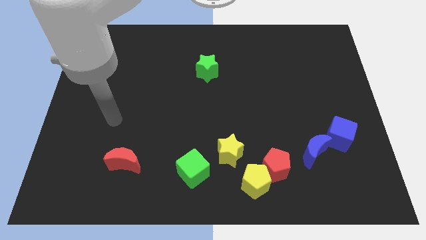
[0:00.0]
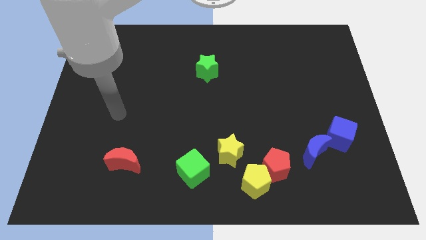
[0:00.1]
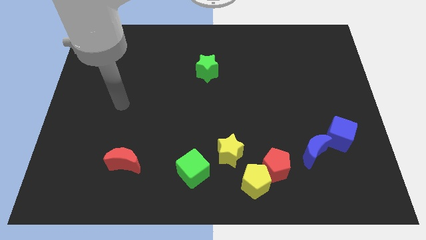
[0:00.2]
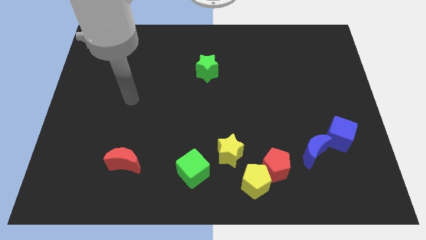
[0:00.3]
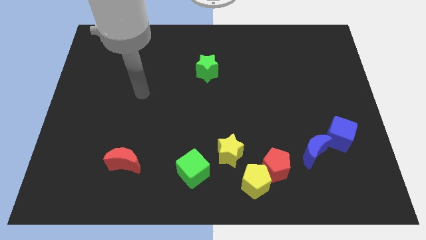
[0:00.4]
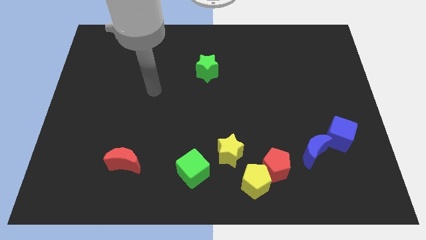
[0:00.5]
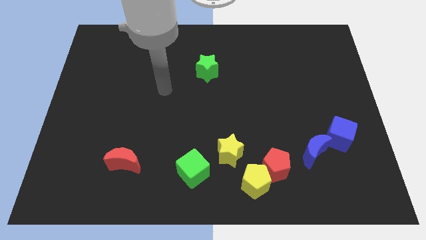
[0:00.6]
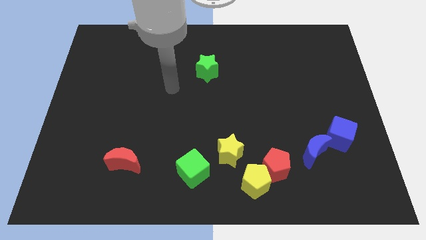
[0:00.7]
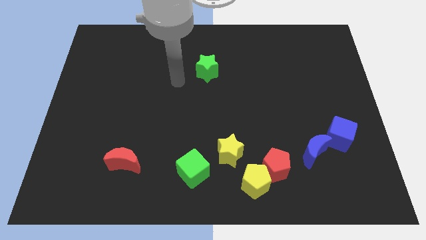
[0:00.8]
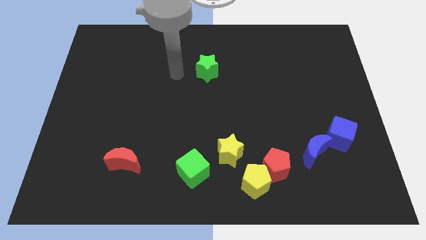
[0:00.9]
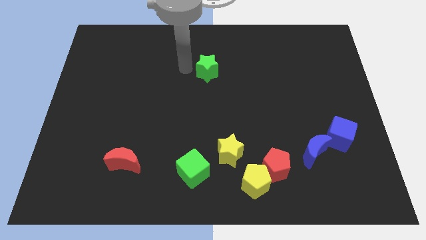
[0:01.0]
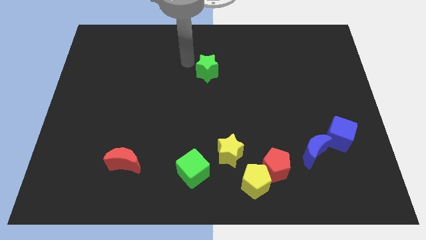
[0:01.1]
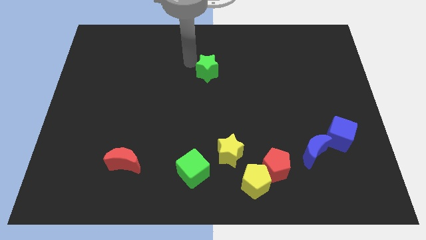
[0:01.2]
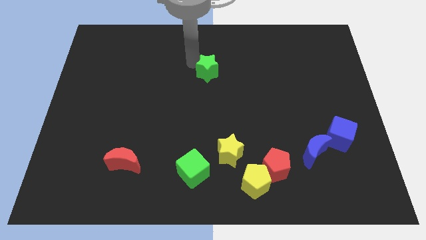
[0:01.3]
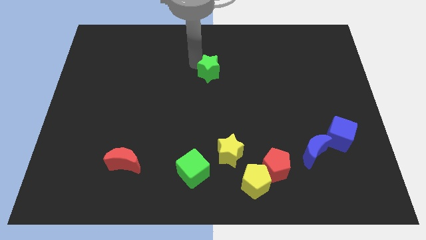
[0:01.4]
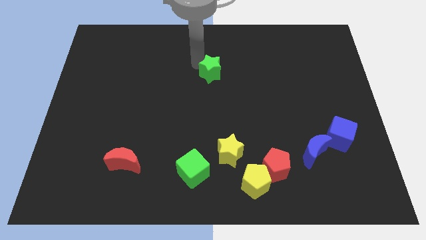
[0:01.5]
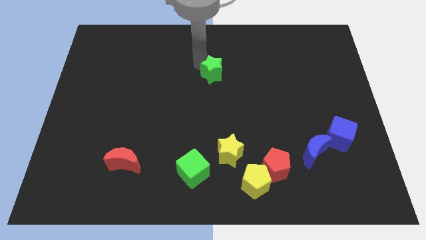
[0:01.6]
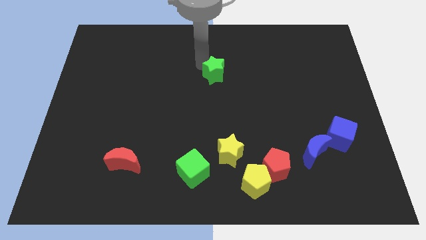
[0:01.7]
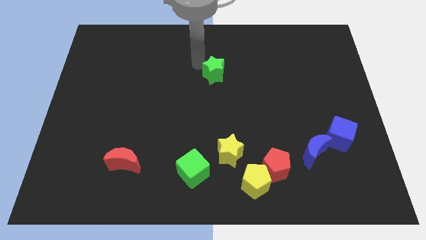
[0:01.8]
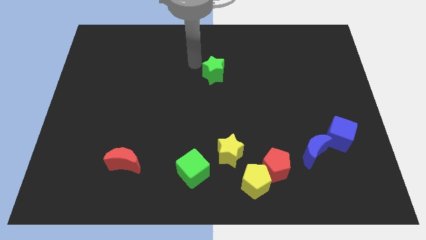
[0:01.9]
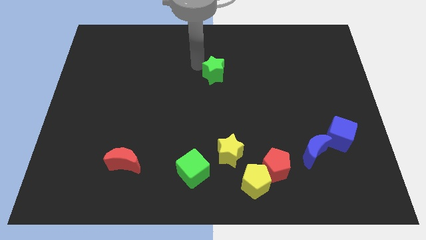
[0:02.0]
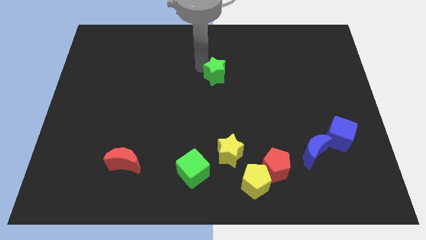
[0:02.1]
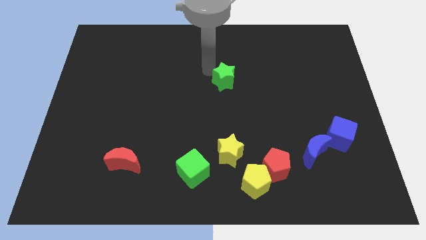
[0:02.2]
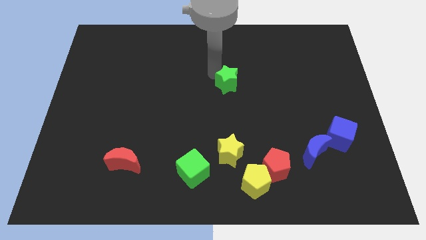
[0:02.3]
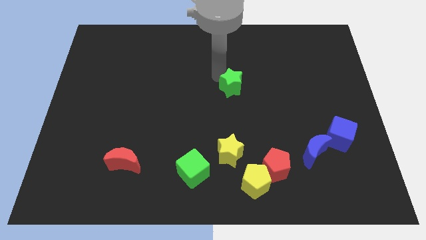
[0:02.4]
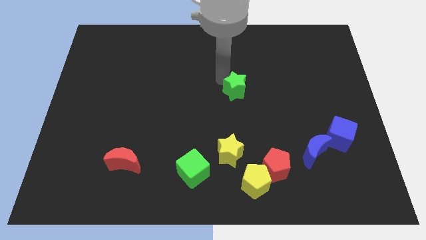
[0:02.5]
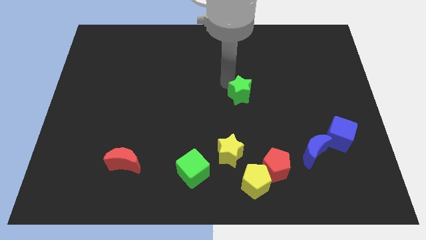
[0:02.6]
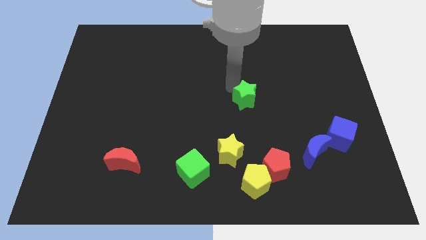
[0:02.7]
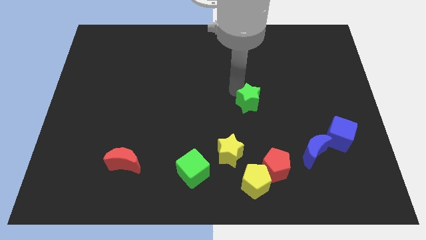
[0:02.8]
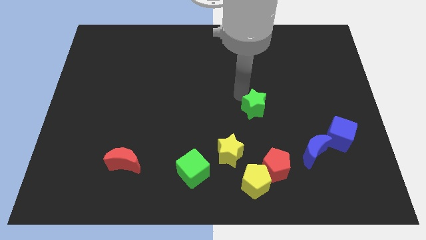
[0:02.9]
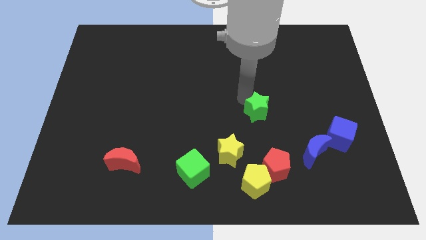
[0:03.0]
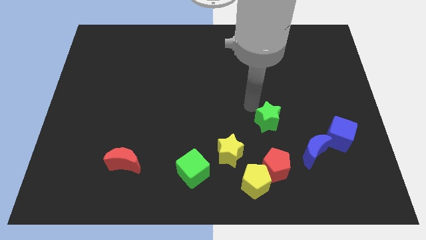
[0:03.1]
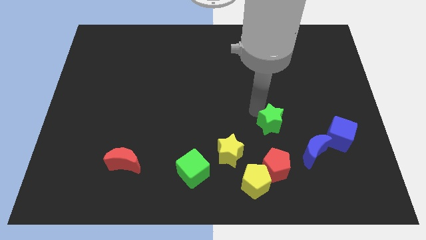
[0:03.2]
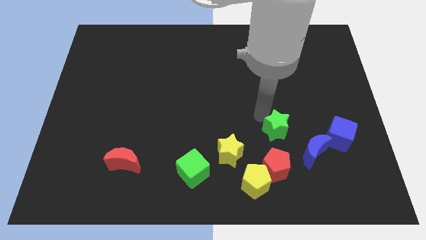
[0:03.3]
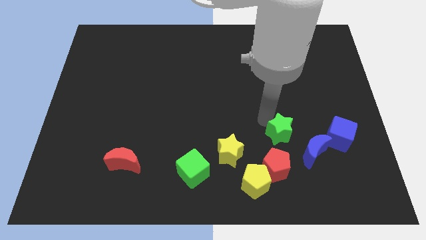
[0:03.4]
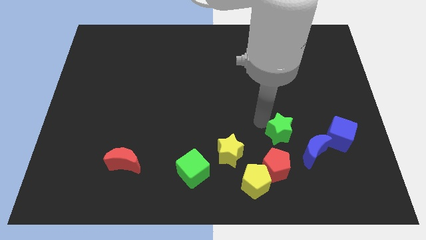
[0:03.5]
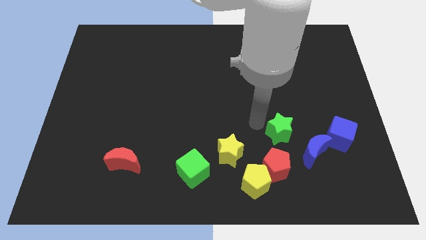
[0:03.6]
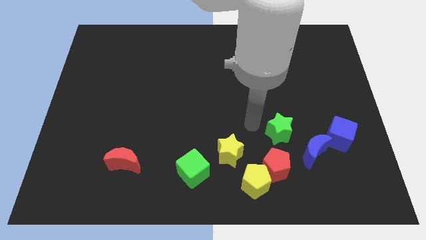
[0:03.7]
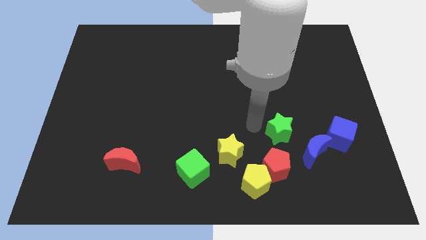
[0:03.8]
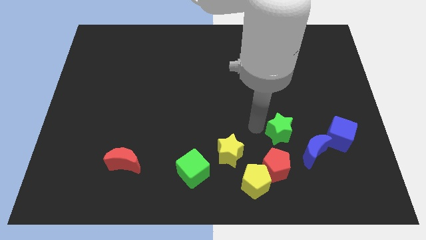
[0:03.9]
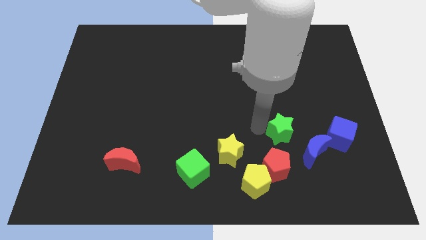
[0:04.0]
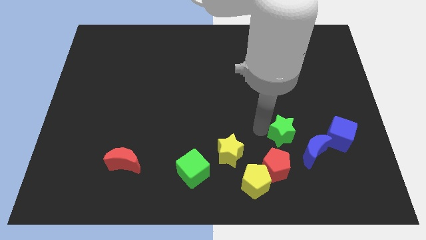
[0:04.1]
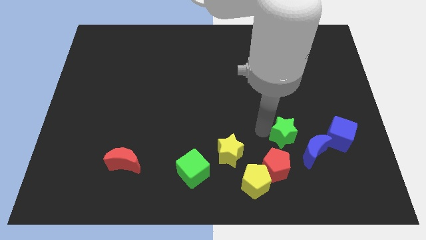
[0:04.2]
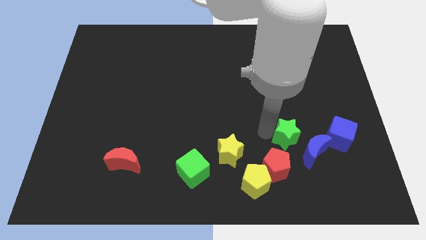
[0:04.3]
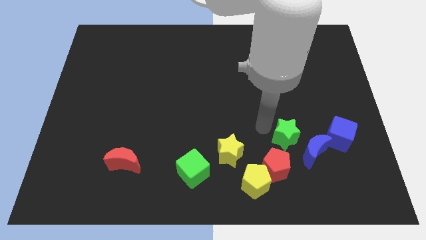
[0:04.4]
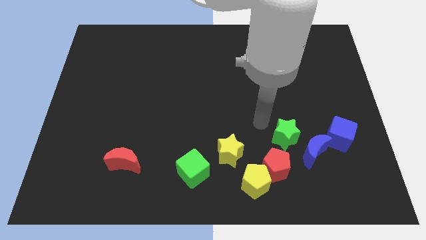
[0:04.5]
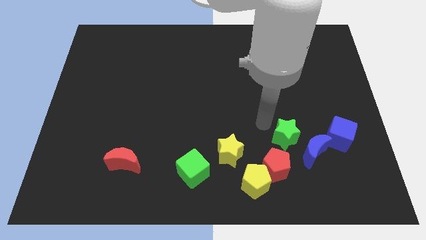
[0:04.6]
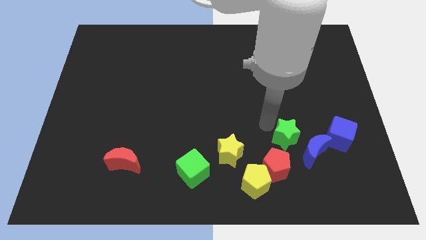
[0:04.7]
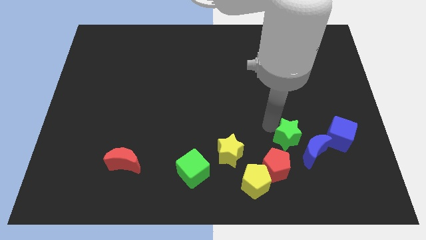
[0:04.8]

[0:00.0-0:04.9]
push the green star next to the blue moon

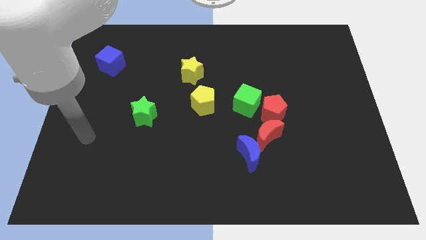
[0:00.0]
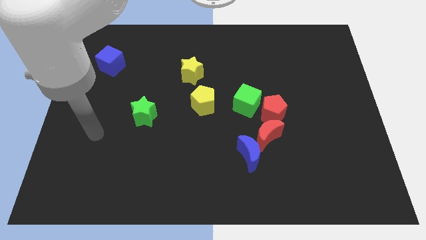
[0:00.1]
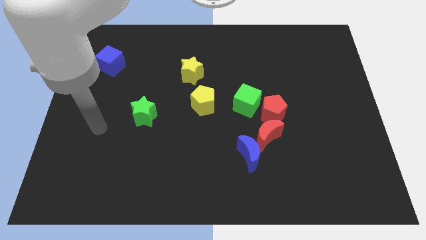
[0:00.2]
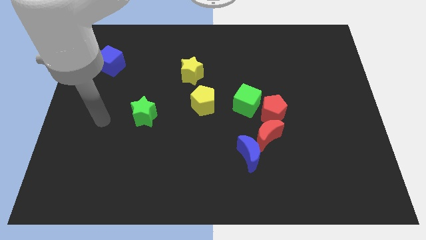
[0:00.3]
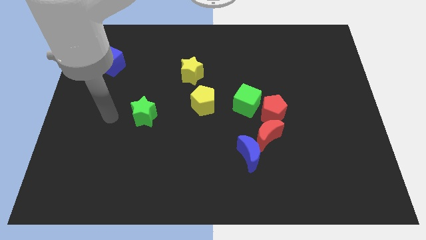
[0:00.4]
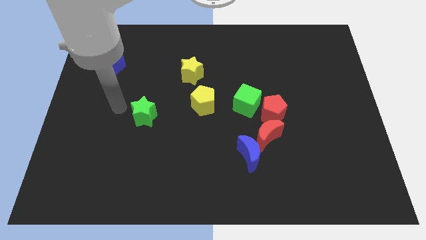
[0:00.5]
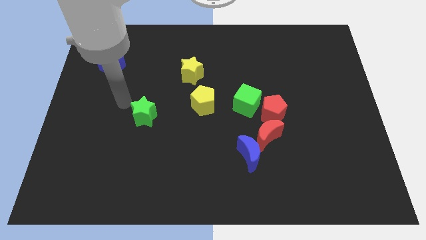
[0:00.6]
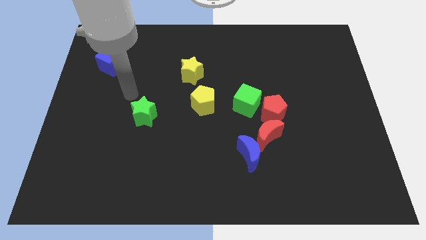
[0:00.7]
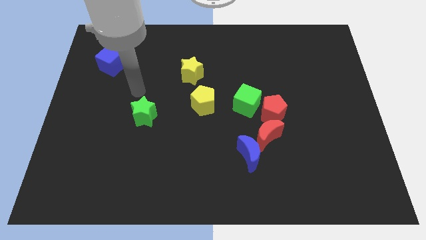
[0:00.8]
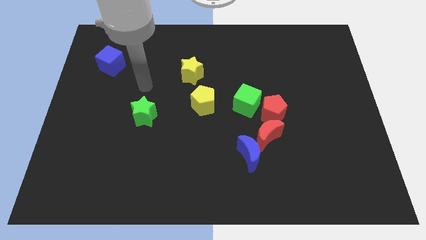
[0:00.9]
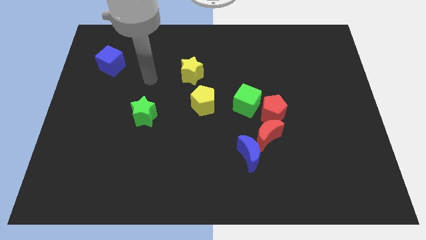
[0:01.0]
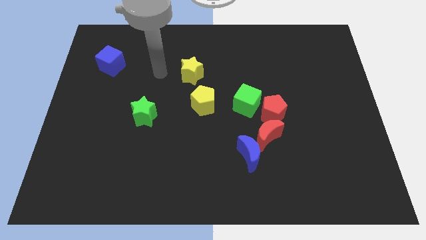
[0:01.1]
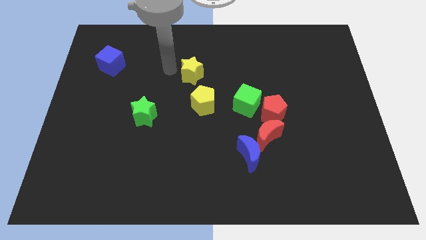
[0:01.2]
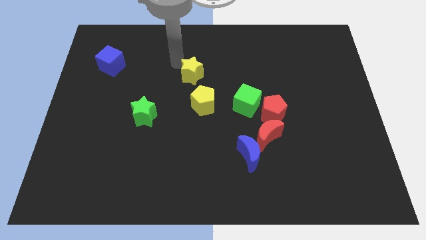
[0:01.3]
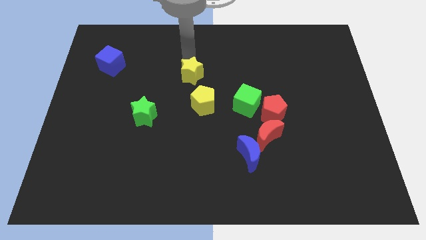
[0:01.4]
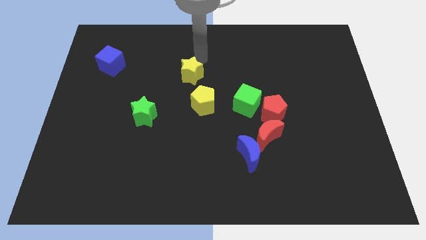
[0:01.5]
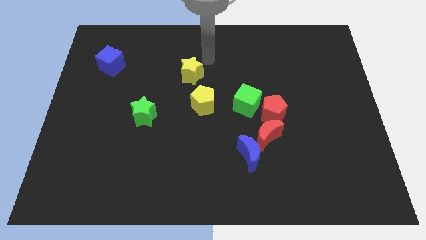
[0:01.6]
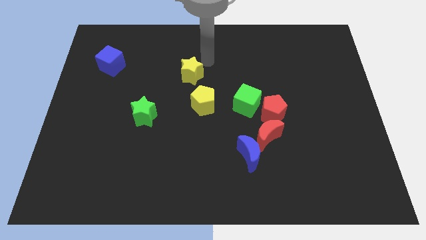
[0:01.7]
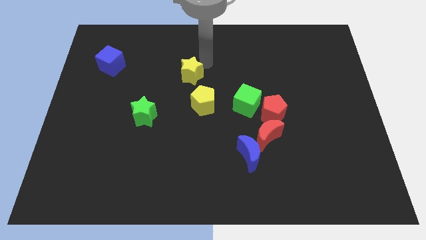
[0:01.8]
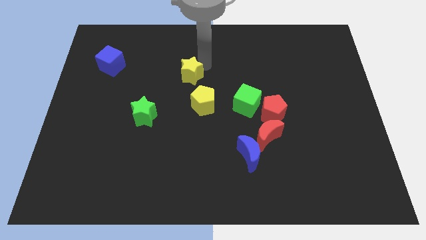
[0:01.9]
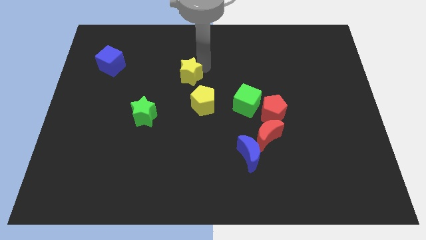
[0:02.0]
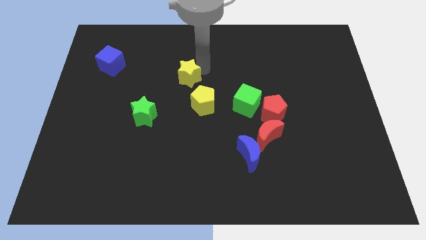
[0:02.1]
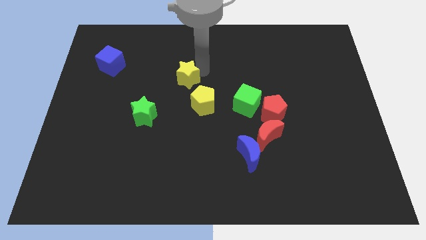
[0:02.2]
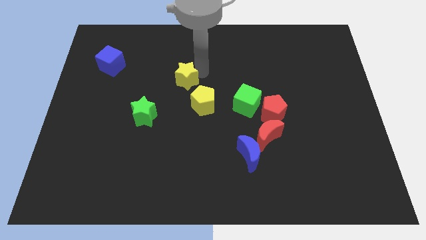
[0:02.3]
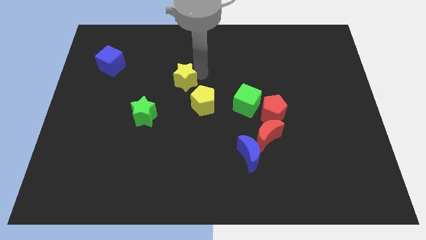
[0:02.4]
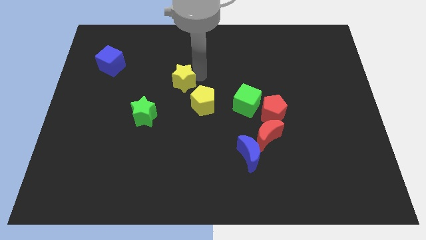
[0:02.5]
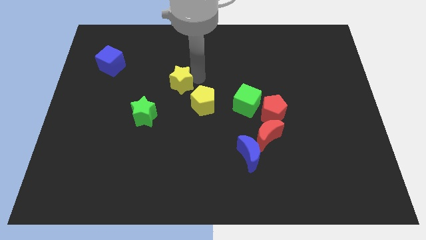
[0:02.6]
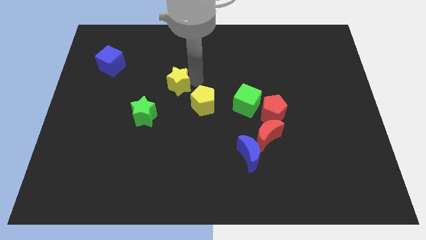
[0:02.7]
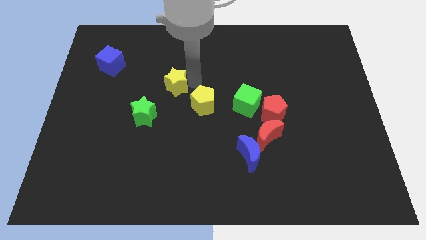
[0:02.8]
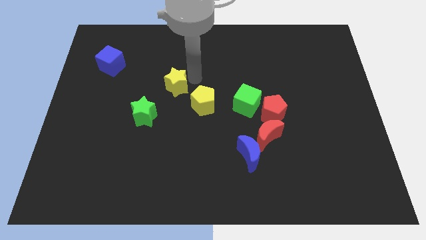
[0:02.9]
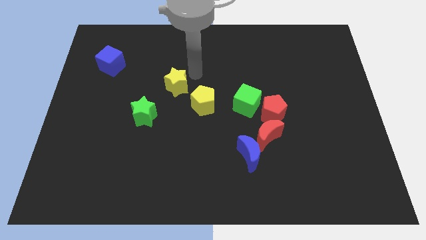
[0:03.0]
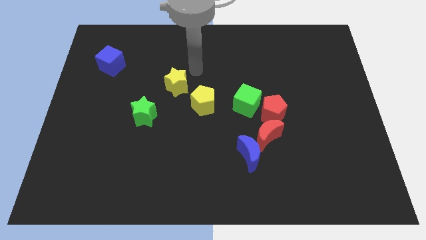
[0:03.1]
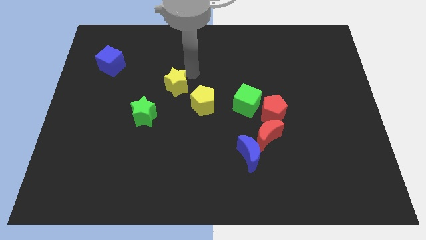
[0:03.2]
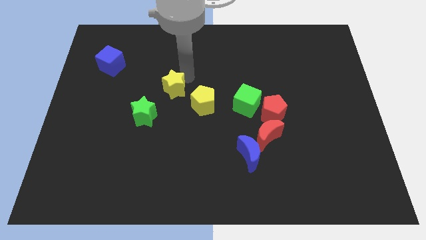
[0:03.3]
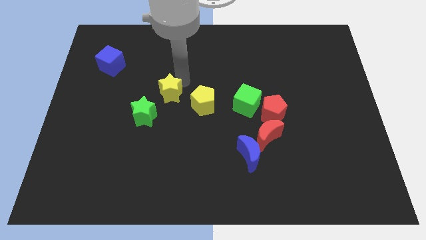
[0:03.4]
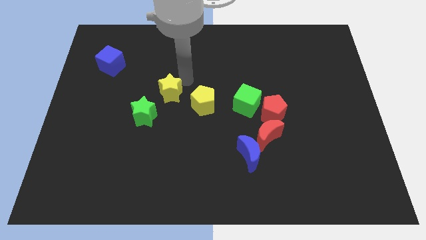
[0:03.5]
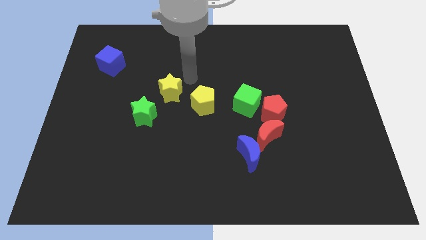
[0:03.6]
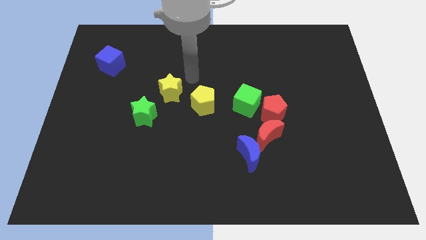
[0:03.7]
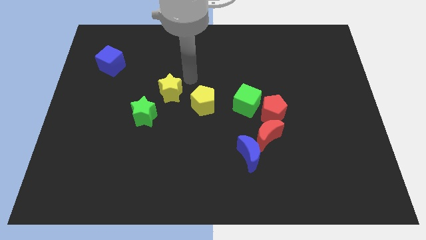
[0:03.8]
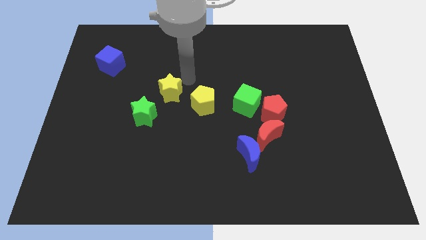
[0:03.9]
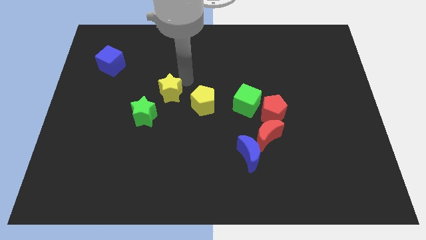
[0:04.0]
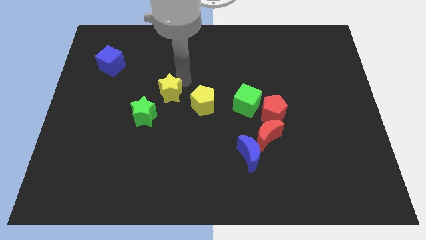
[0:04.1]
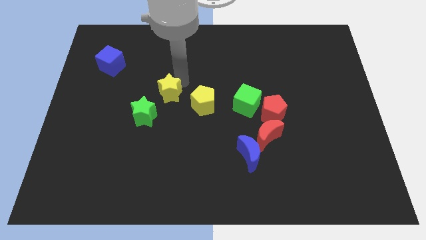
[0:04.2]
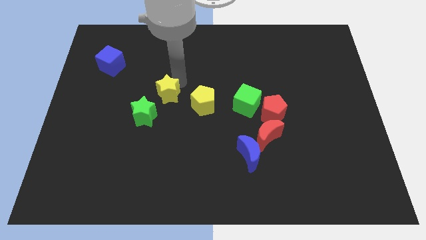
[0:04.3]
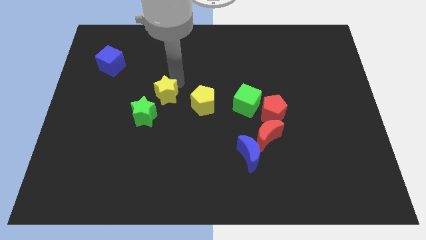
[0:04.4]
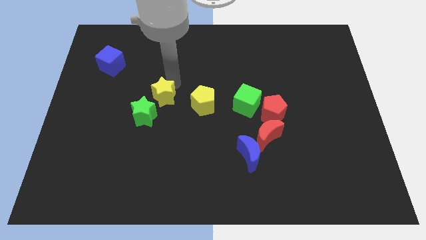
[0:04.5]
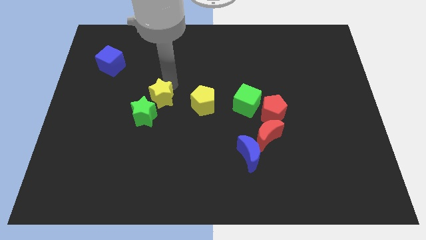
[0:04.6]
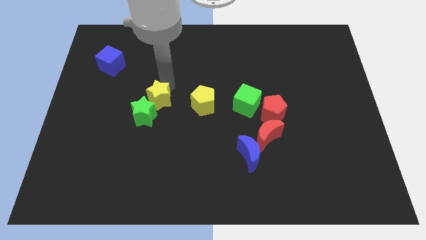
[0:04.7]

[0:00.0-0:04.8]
move the yellow star close to the green star
